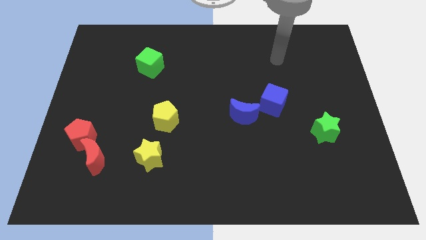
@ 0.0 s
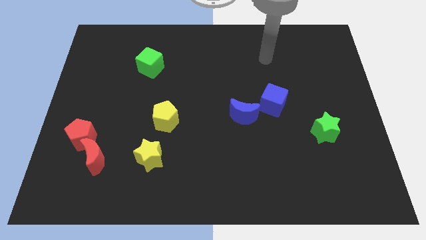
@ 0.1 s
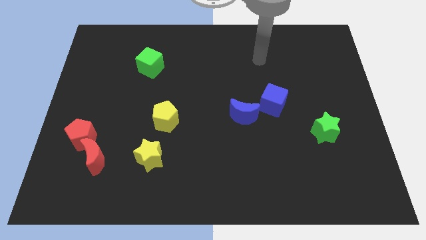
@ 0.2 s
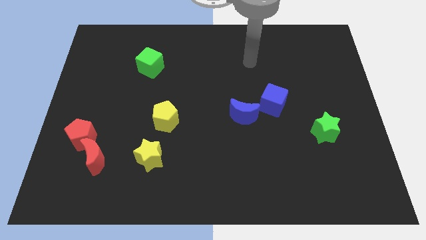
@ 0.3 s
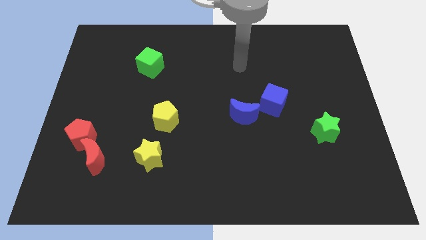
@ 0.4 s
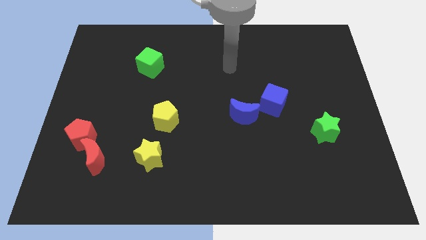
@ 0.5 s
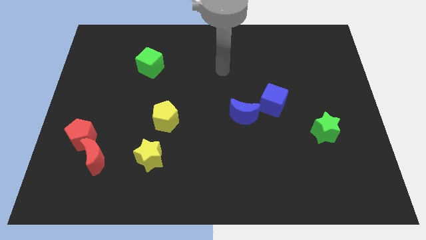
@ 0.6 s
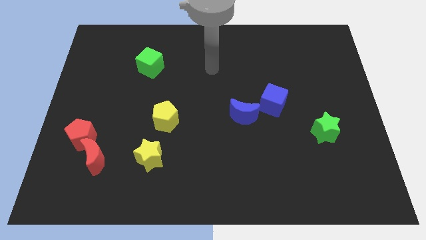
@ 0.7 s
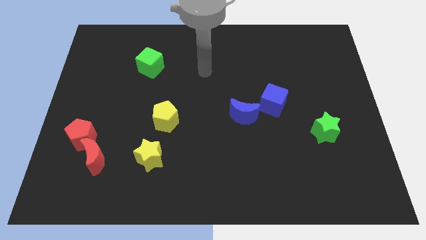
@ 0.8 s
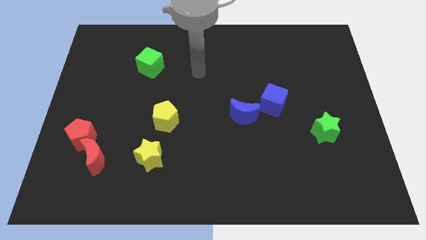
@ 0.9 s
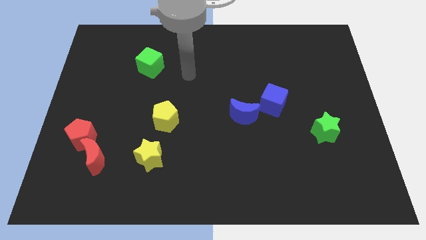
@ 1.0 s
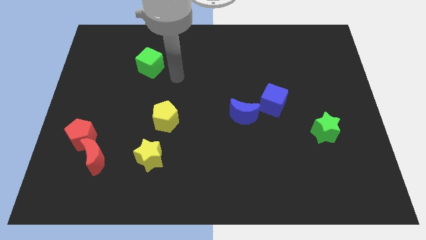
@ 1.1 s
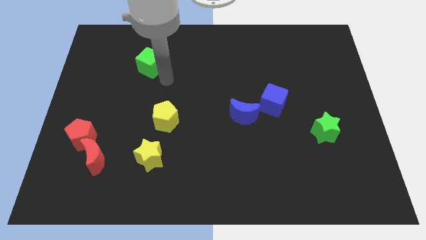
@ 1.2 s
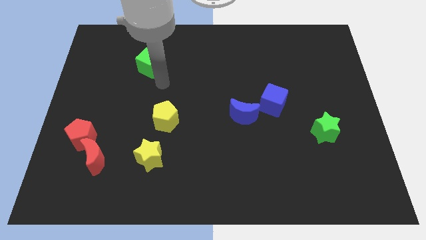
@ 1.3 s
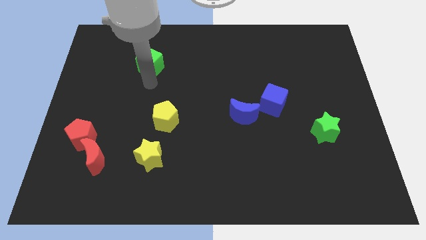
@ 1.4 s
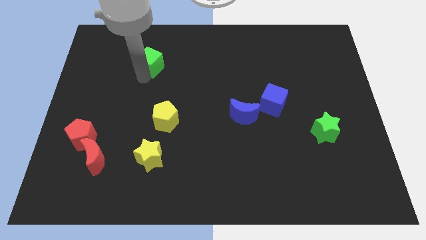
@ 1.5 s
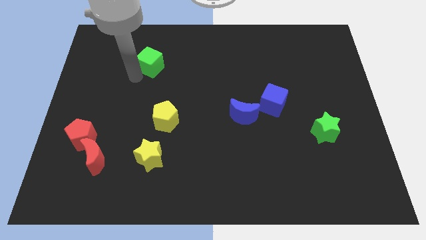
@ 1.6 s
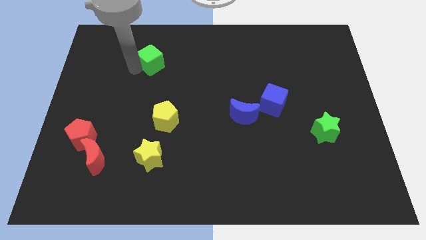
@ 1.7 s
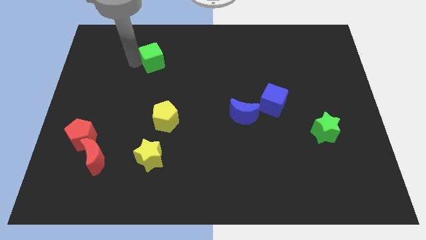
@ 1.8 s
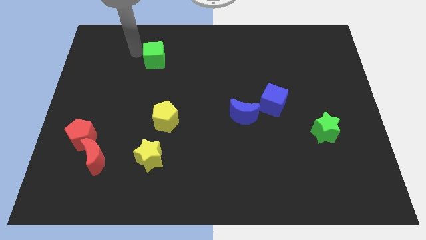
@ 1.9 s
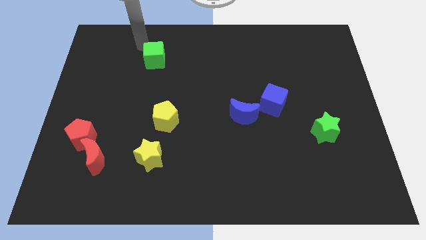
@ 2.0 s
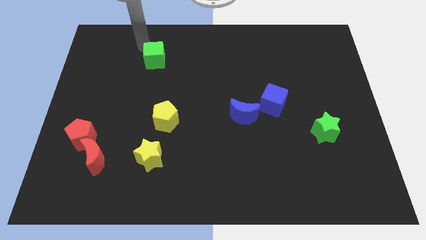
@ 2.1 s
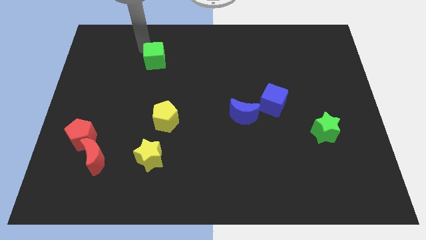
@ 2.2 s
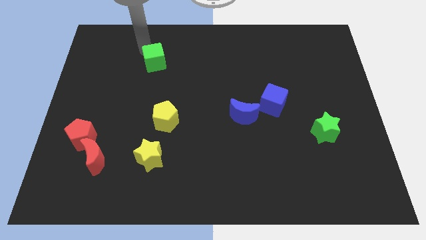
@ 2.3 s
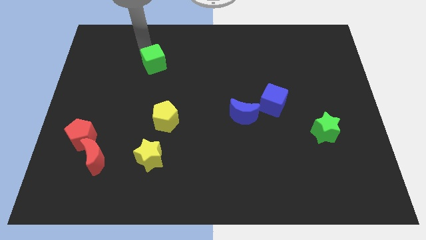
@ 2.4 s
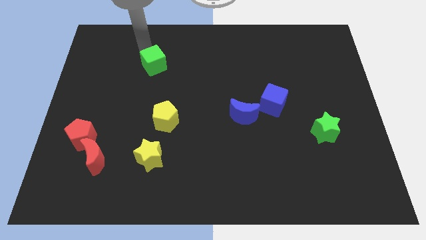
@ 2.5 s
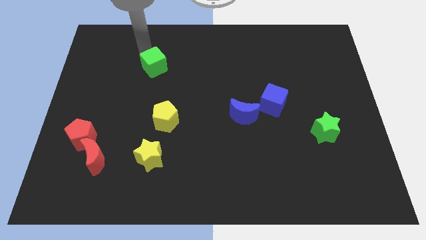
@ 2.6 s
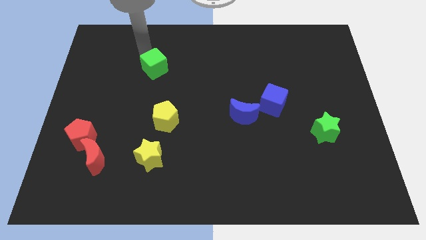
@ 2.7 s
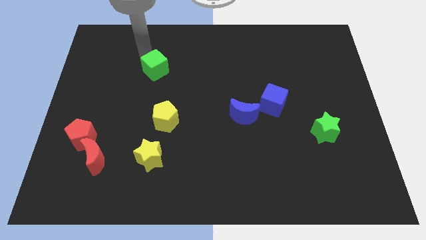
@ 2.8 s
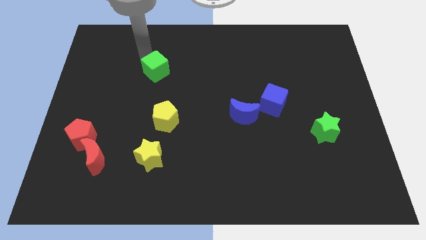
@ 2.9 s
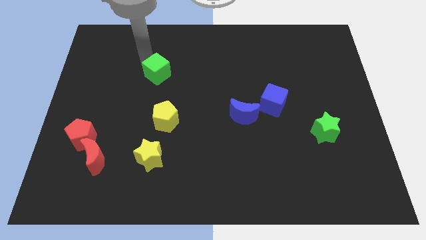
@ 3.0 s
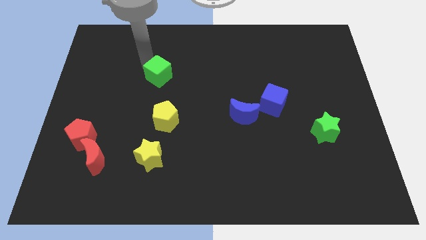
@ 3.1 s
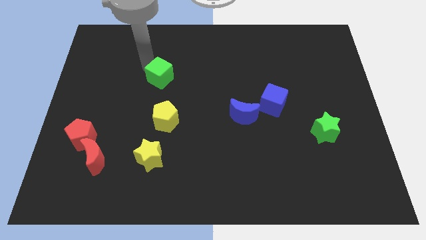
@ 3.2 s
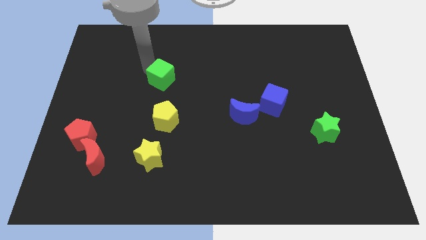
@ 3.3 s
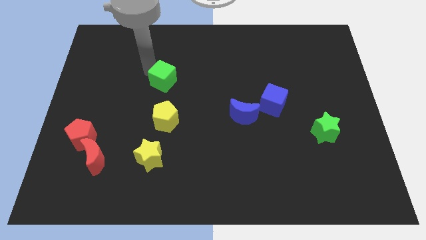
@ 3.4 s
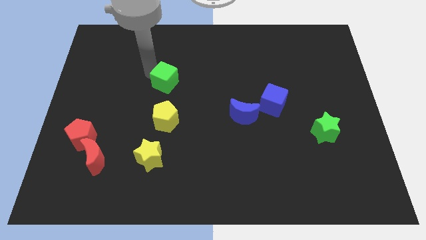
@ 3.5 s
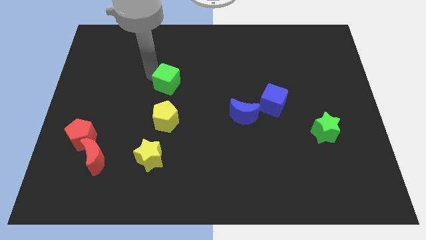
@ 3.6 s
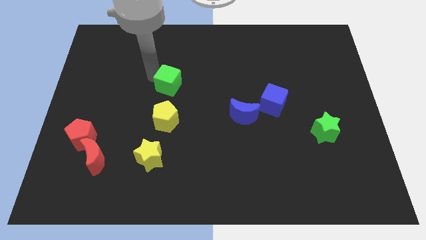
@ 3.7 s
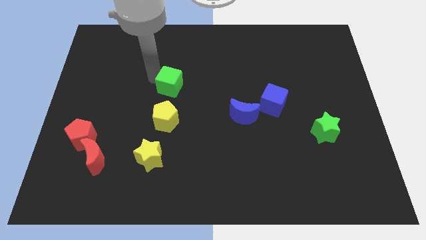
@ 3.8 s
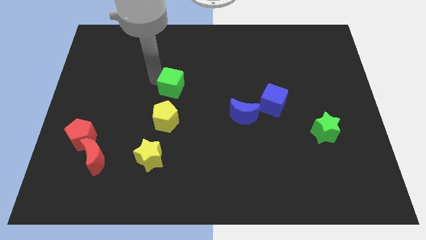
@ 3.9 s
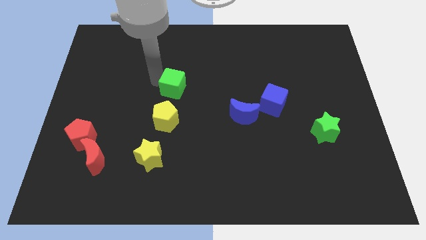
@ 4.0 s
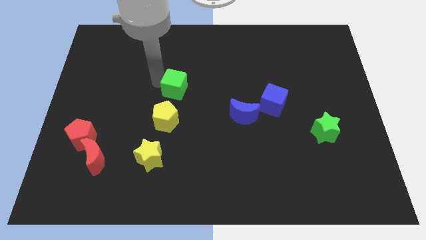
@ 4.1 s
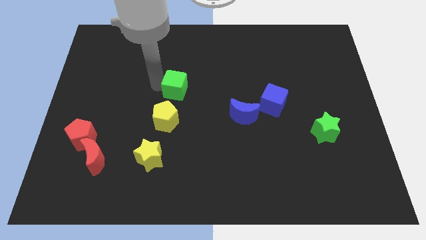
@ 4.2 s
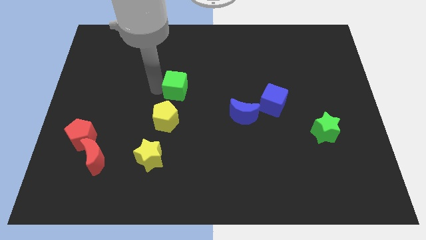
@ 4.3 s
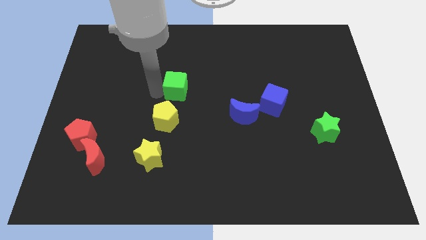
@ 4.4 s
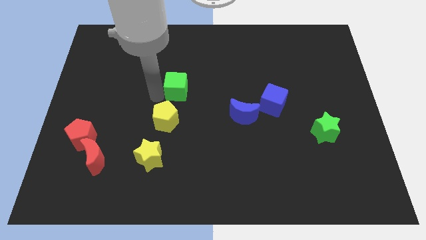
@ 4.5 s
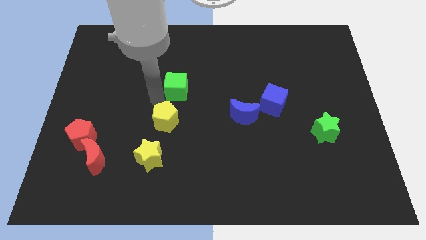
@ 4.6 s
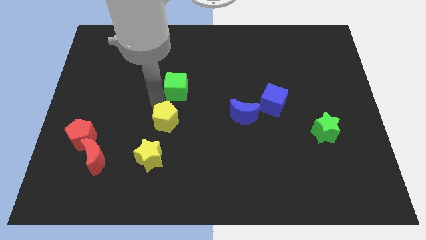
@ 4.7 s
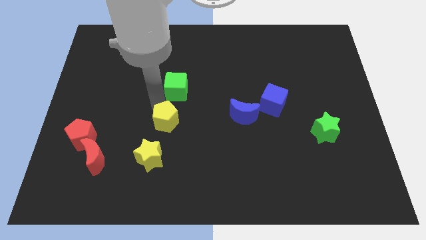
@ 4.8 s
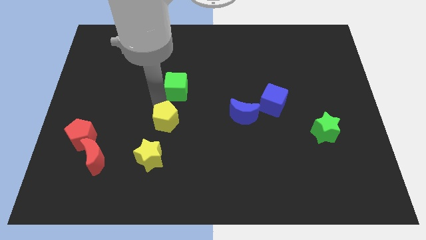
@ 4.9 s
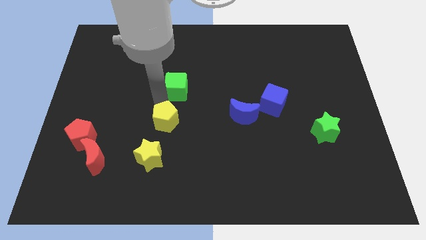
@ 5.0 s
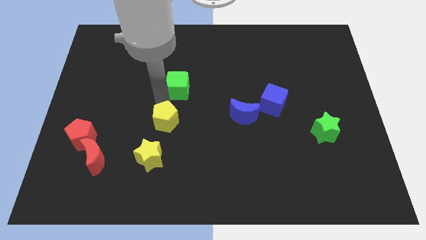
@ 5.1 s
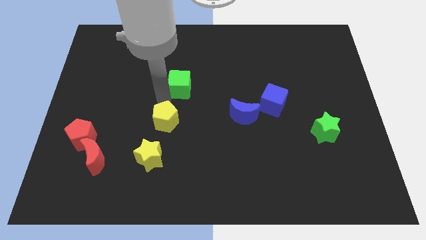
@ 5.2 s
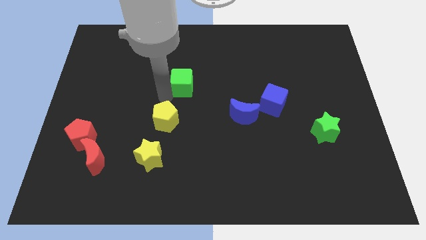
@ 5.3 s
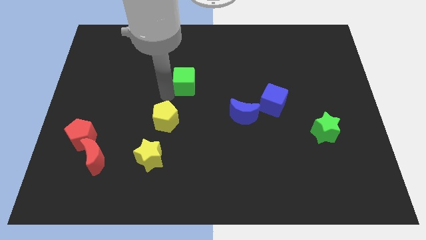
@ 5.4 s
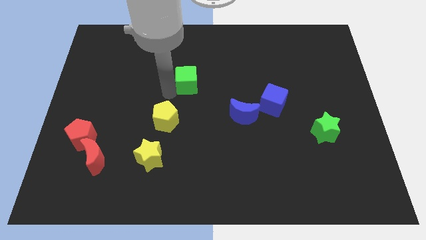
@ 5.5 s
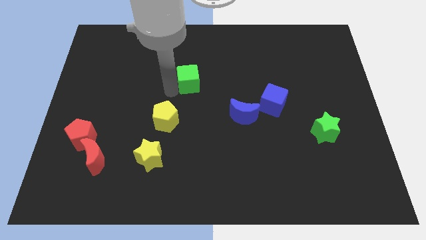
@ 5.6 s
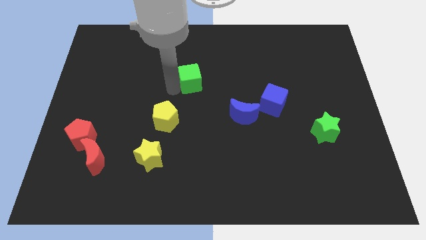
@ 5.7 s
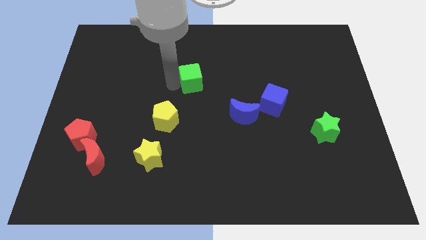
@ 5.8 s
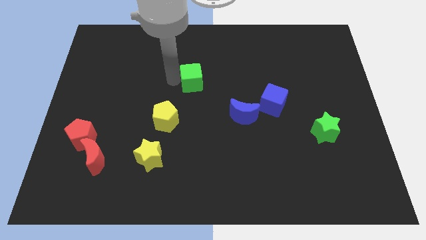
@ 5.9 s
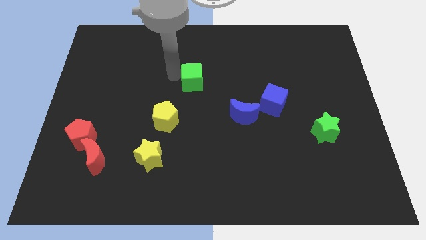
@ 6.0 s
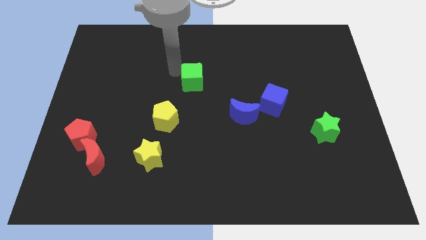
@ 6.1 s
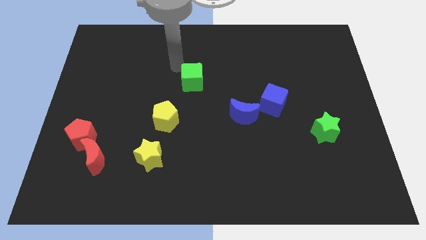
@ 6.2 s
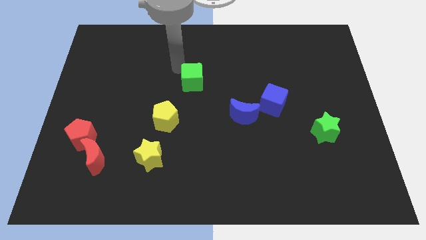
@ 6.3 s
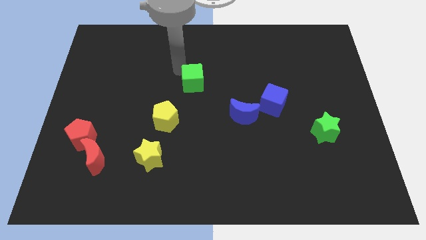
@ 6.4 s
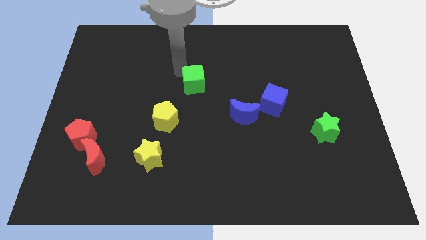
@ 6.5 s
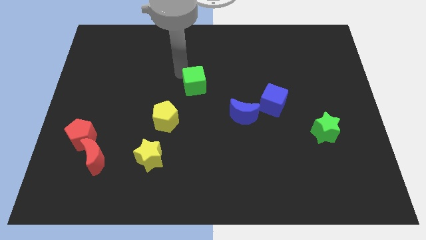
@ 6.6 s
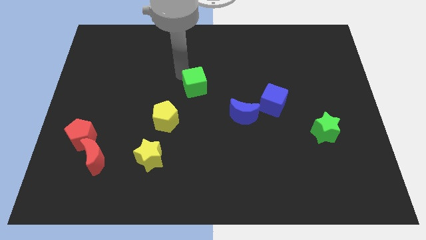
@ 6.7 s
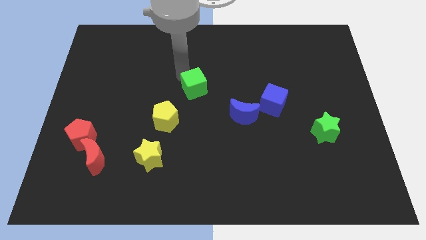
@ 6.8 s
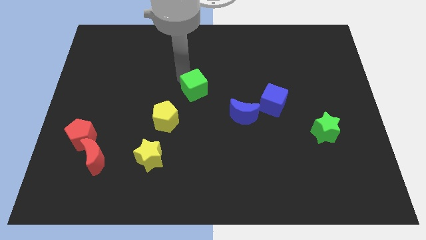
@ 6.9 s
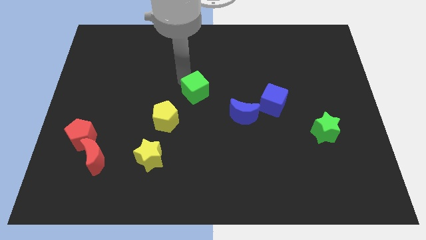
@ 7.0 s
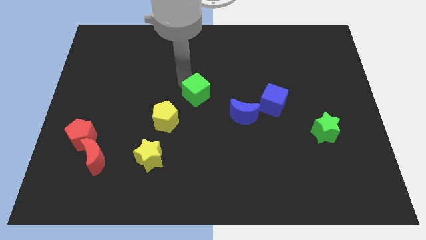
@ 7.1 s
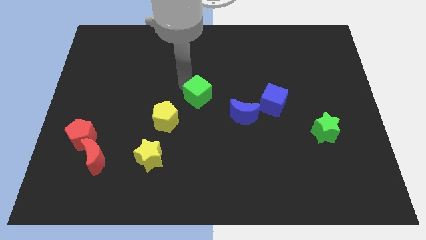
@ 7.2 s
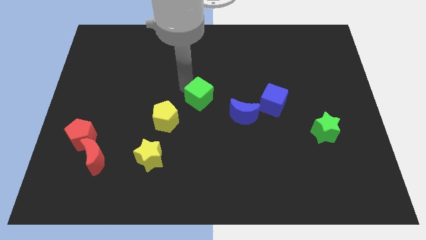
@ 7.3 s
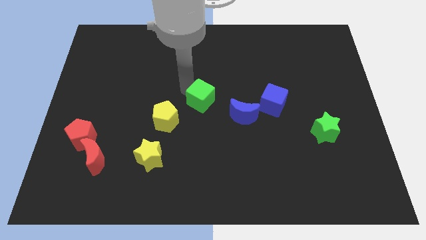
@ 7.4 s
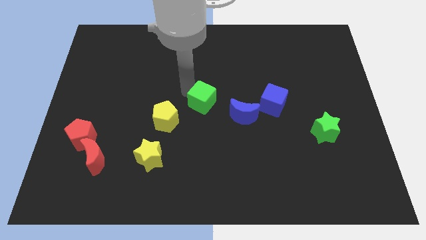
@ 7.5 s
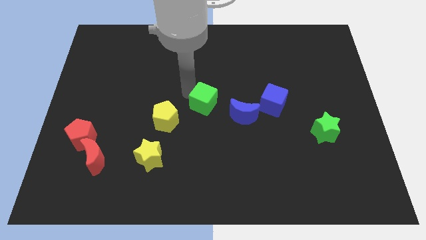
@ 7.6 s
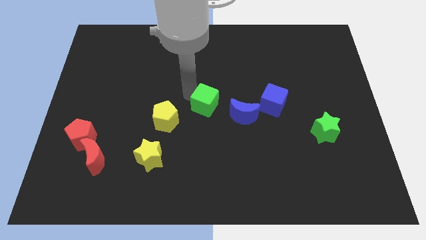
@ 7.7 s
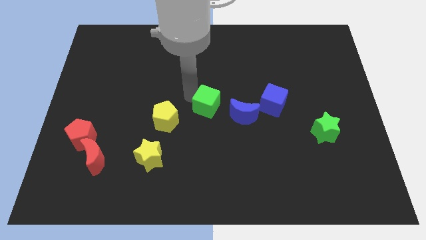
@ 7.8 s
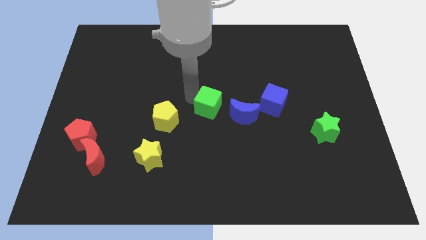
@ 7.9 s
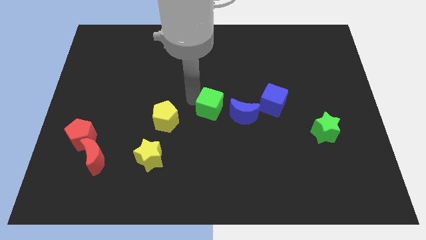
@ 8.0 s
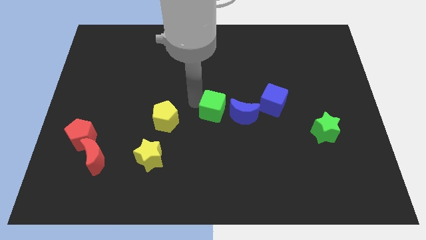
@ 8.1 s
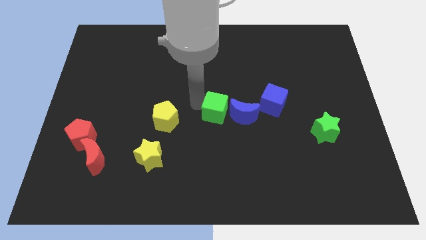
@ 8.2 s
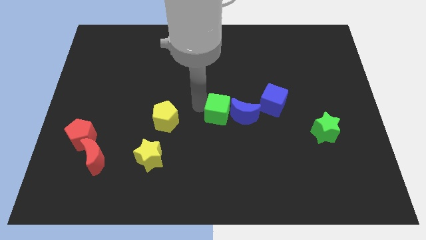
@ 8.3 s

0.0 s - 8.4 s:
push the green cube close to the blue moon
